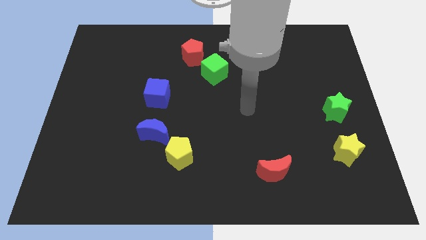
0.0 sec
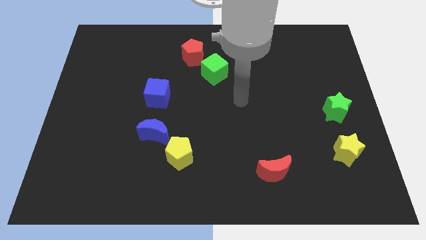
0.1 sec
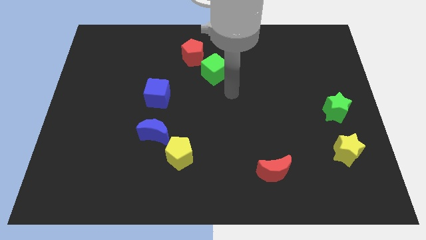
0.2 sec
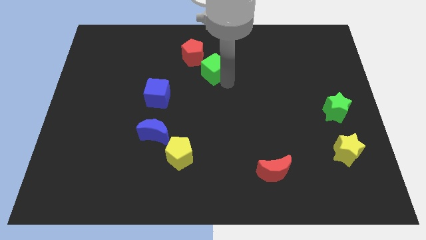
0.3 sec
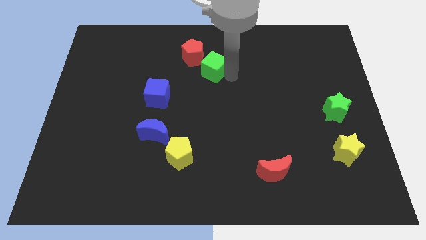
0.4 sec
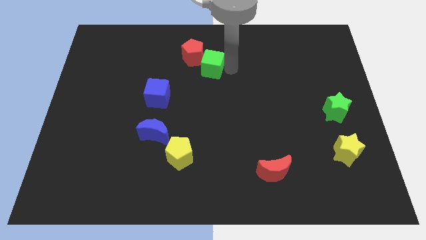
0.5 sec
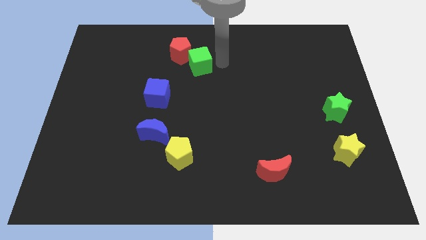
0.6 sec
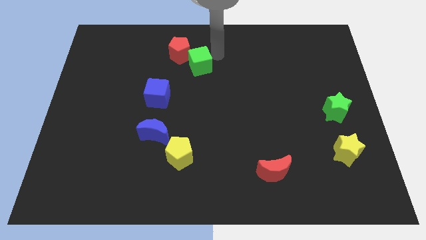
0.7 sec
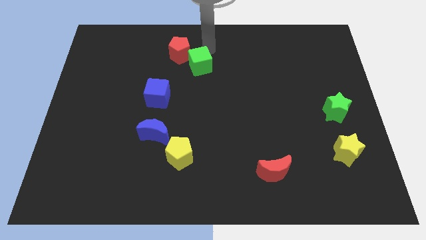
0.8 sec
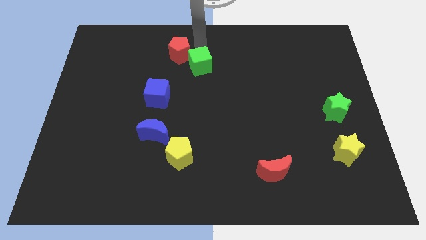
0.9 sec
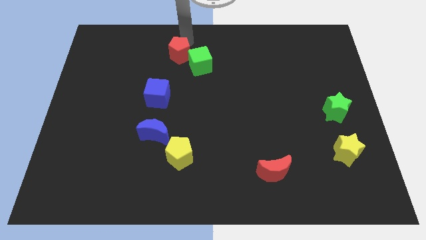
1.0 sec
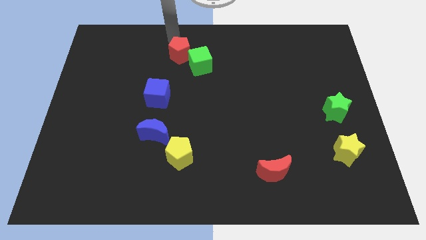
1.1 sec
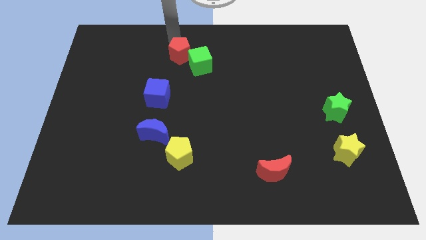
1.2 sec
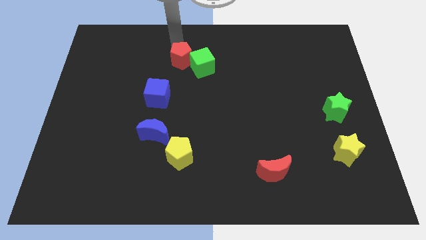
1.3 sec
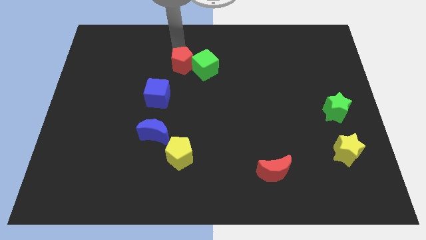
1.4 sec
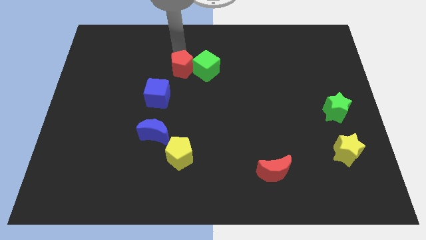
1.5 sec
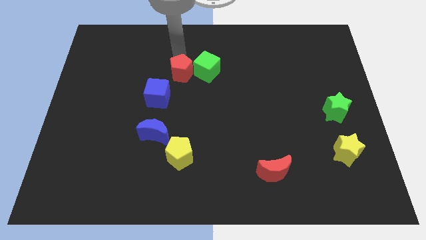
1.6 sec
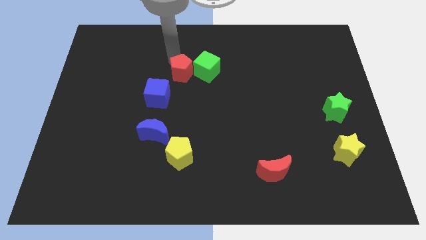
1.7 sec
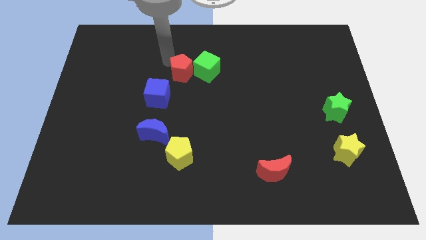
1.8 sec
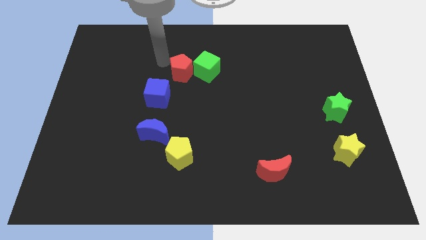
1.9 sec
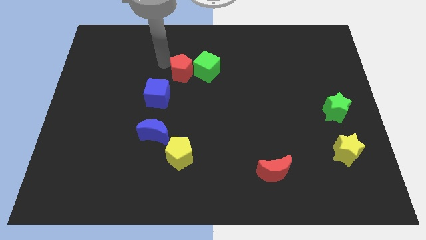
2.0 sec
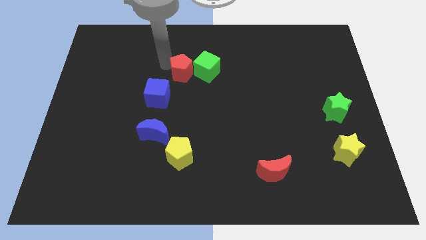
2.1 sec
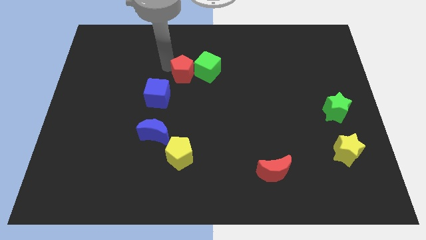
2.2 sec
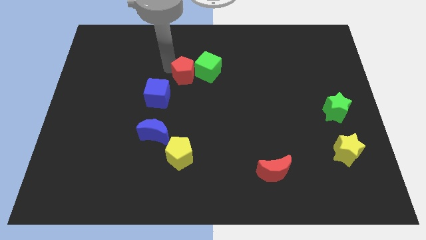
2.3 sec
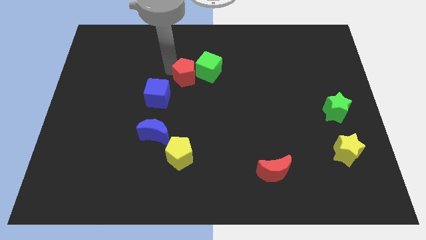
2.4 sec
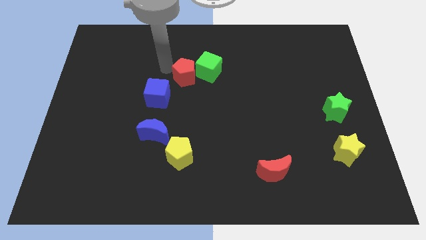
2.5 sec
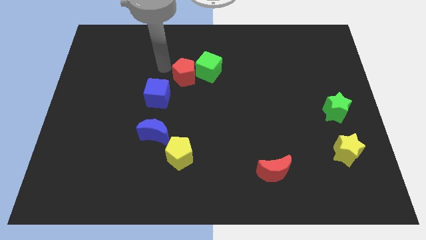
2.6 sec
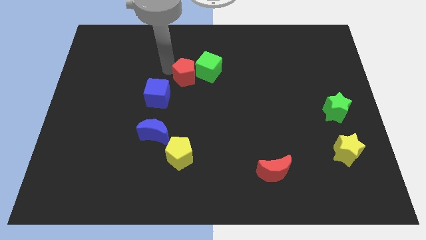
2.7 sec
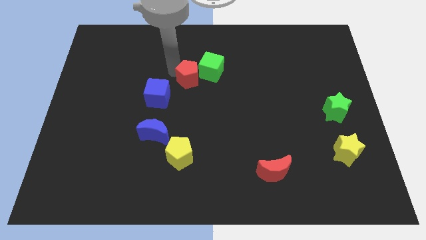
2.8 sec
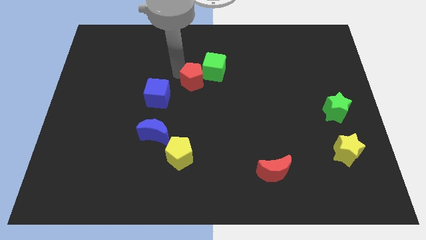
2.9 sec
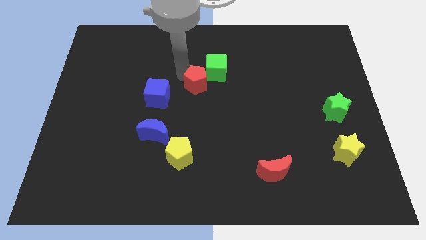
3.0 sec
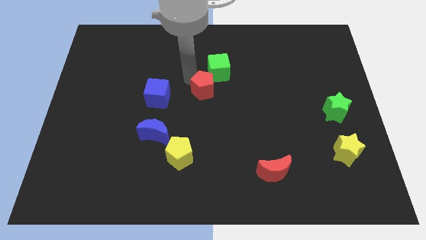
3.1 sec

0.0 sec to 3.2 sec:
move the red pentagon down and to the right diagonally somewhat

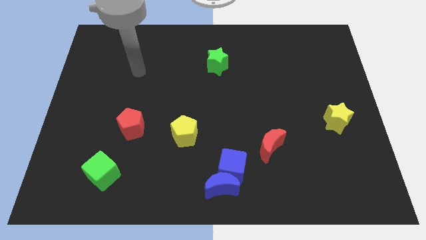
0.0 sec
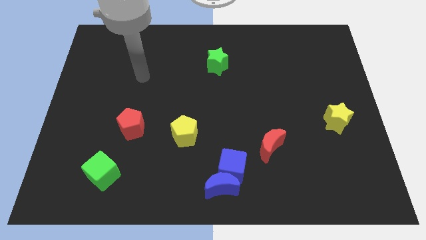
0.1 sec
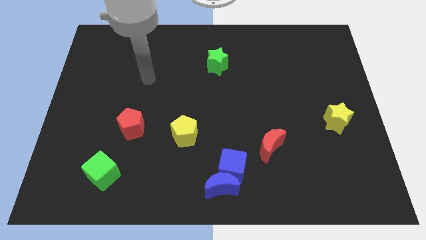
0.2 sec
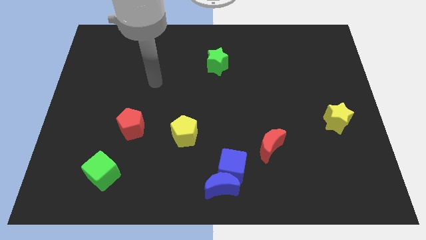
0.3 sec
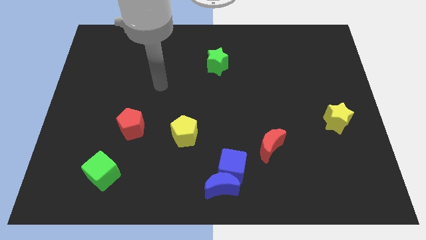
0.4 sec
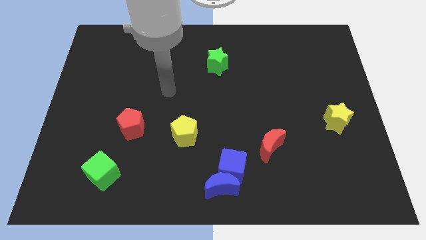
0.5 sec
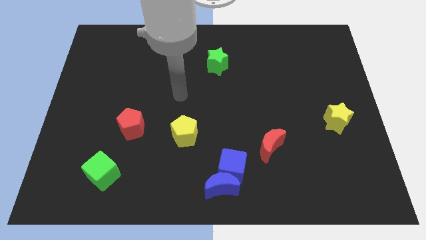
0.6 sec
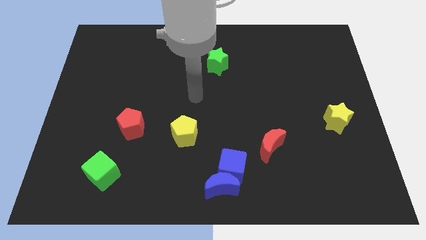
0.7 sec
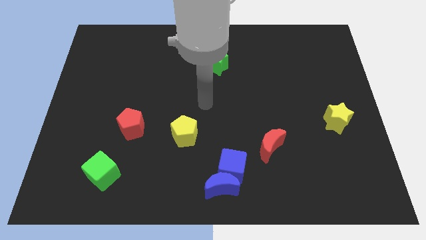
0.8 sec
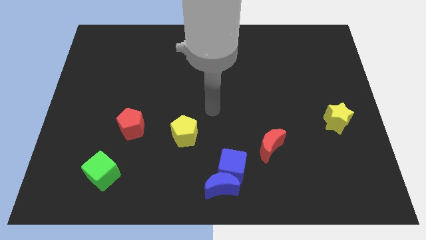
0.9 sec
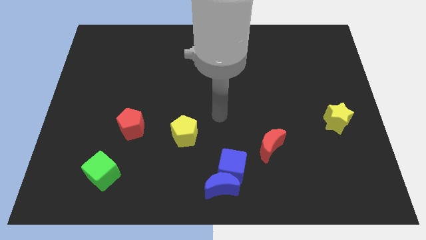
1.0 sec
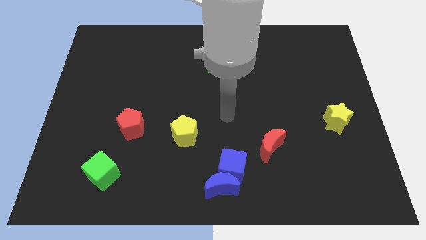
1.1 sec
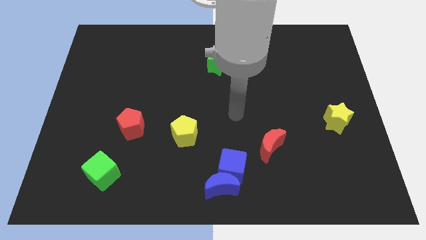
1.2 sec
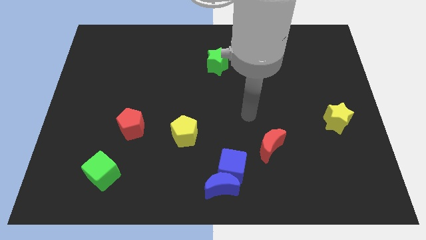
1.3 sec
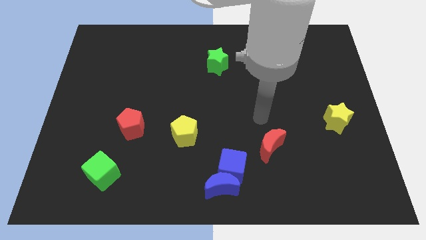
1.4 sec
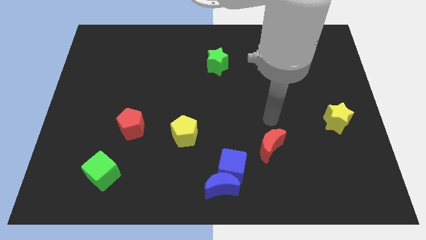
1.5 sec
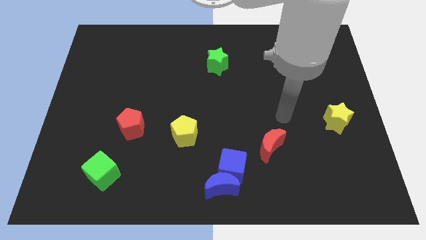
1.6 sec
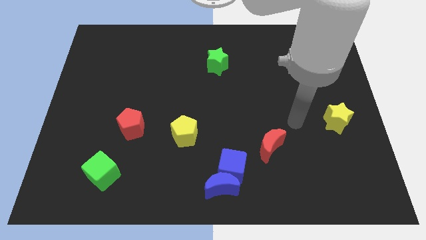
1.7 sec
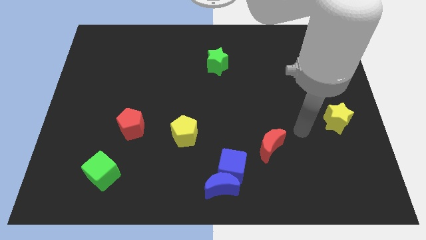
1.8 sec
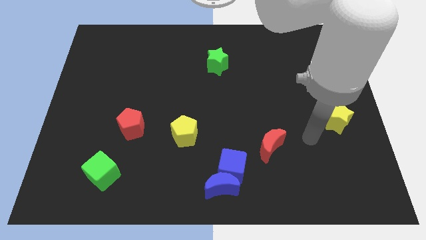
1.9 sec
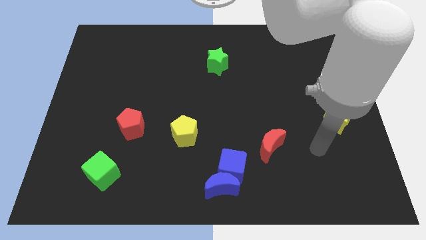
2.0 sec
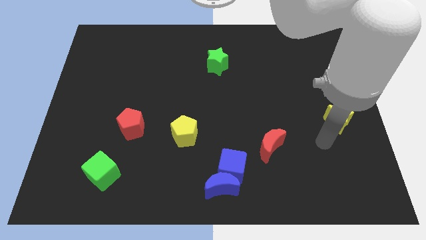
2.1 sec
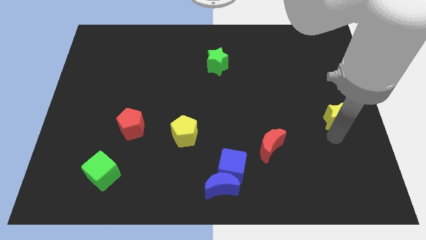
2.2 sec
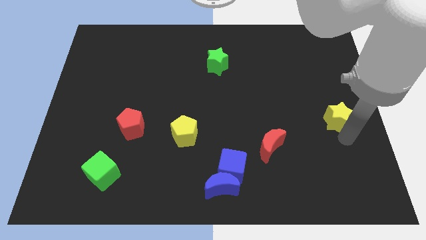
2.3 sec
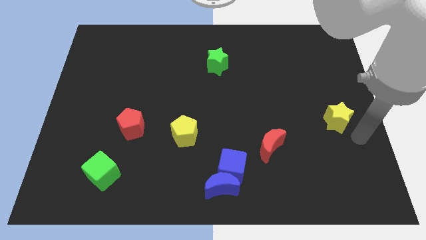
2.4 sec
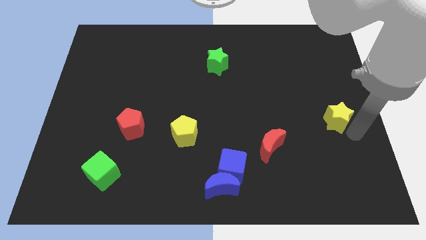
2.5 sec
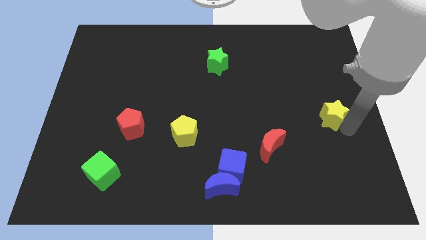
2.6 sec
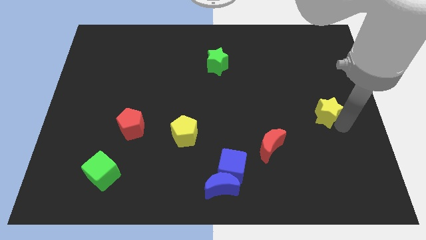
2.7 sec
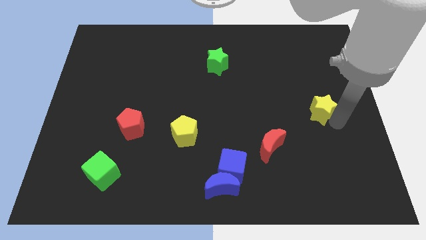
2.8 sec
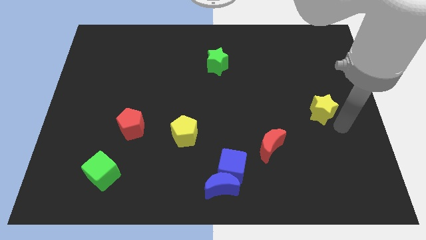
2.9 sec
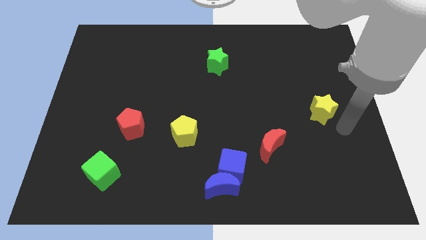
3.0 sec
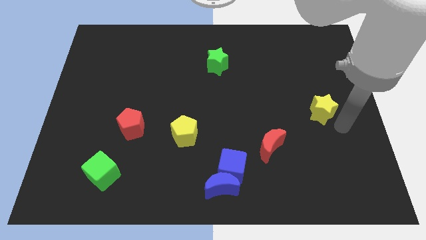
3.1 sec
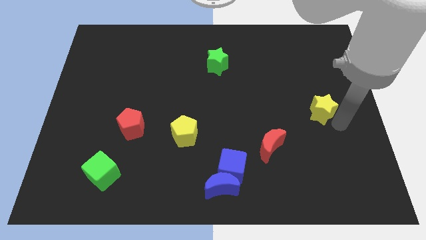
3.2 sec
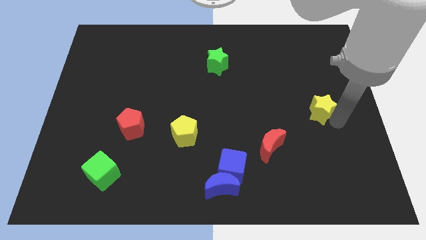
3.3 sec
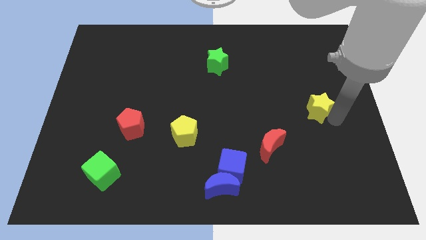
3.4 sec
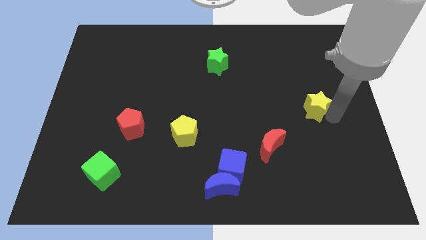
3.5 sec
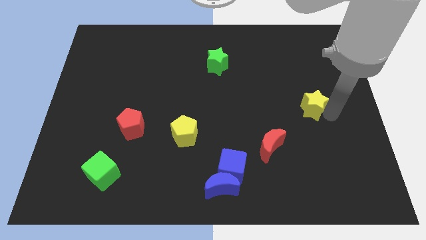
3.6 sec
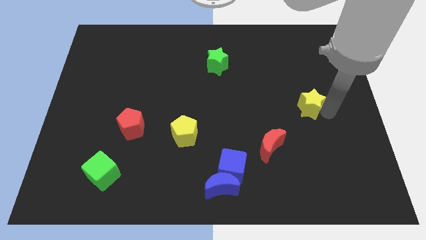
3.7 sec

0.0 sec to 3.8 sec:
slightly move the yellow star upwards and then left

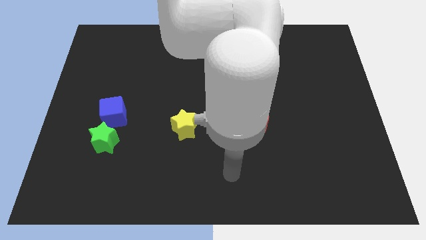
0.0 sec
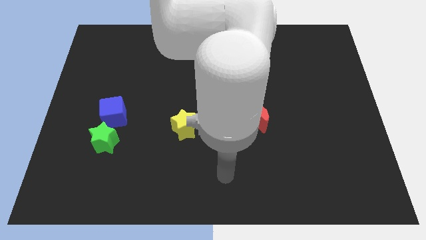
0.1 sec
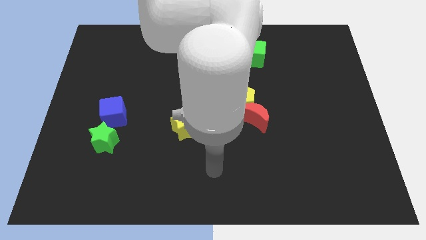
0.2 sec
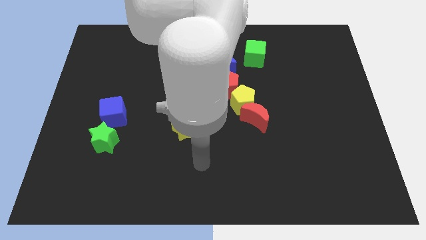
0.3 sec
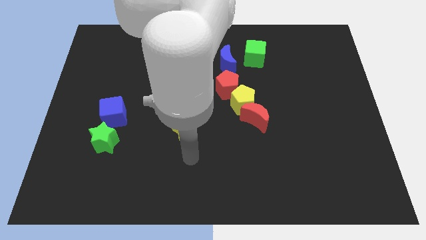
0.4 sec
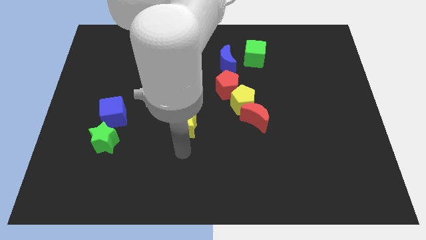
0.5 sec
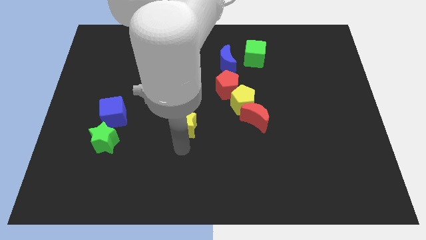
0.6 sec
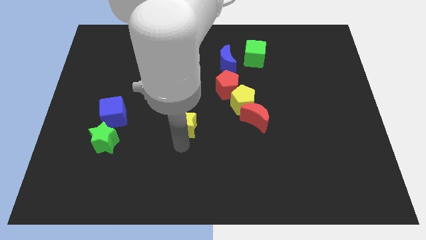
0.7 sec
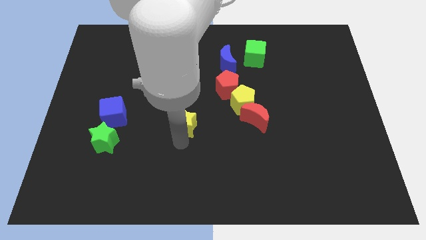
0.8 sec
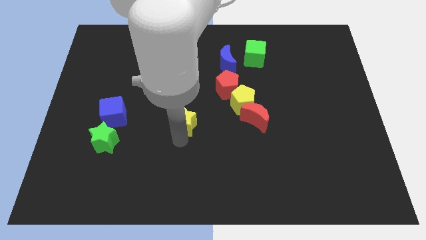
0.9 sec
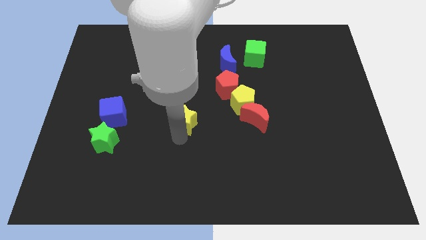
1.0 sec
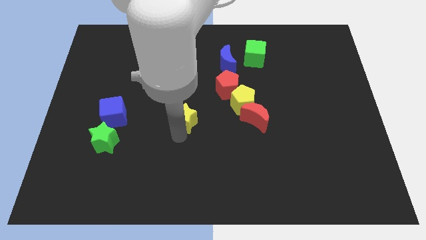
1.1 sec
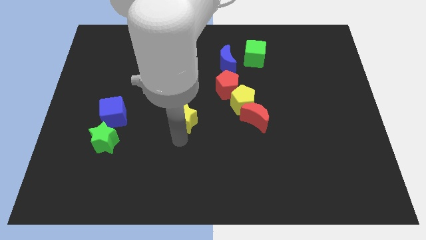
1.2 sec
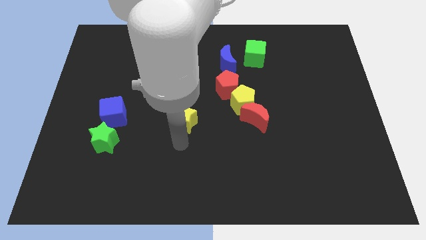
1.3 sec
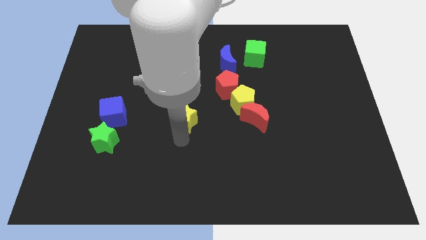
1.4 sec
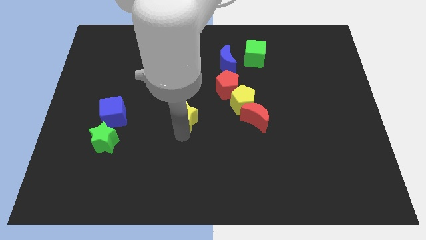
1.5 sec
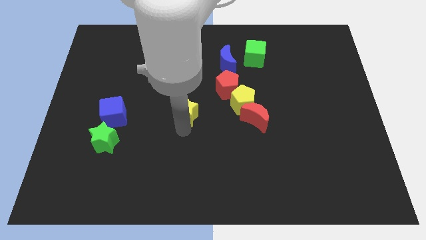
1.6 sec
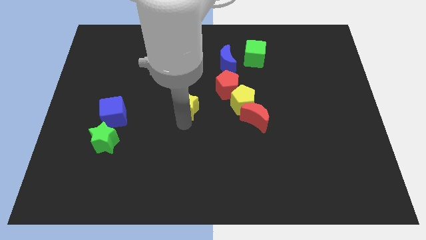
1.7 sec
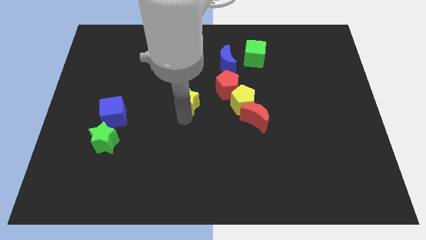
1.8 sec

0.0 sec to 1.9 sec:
push the yellow star upwards a little bit
